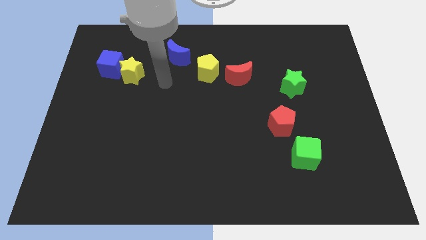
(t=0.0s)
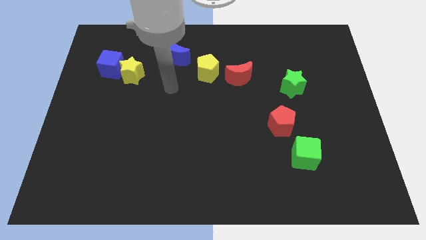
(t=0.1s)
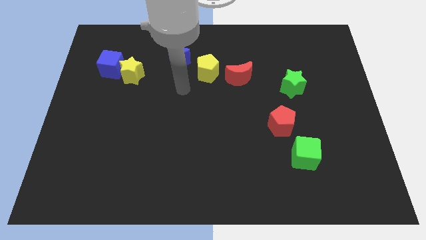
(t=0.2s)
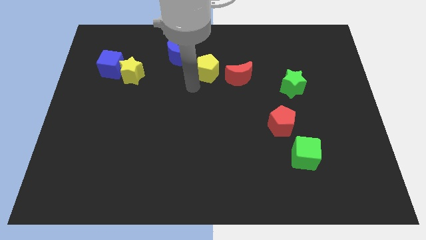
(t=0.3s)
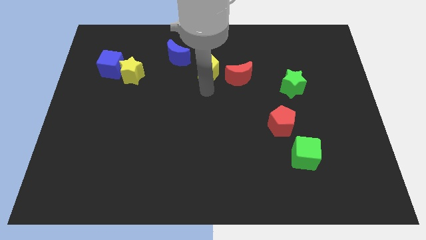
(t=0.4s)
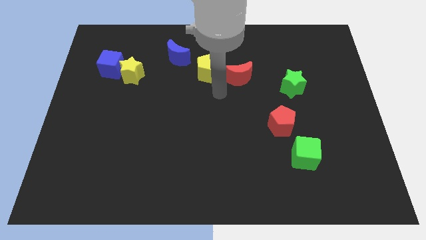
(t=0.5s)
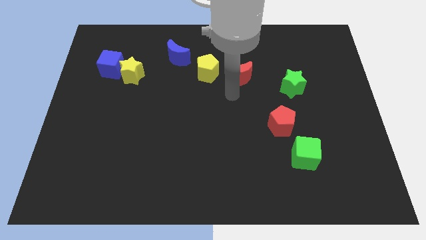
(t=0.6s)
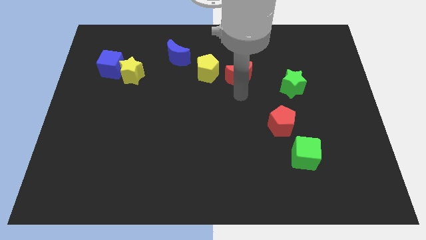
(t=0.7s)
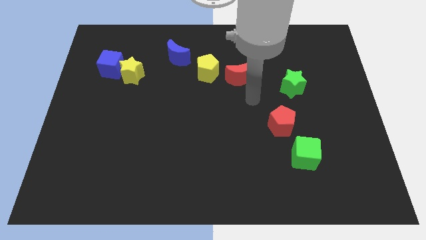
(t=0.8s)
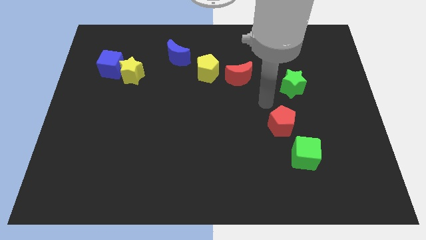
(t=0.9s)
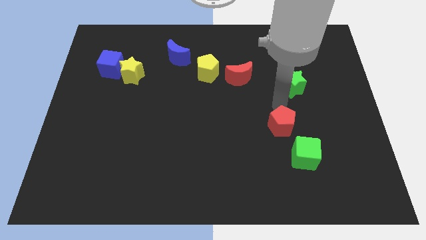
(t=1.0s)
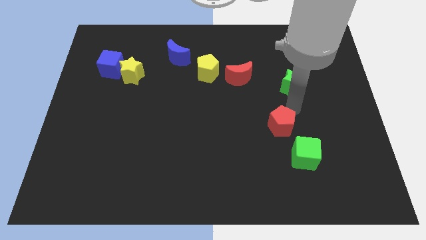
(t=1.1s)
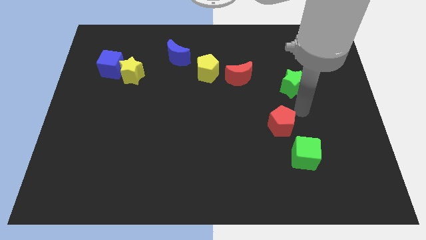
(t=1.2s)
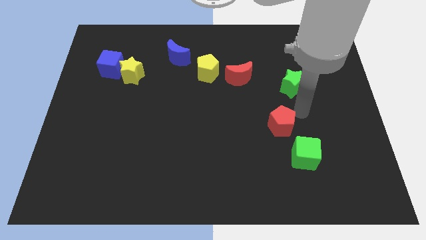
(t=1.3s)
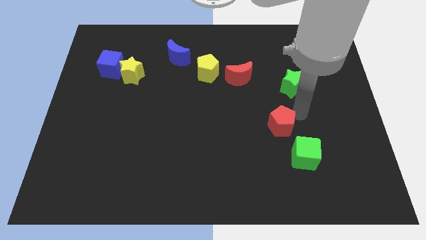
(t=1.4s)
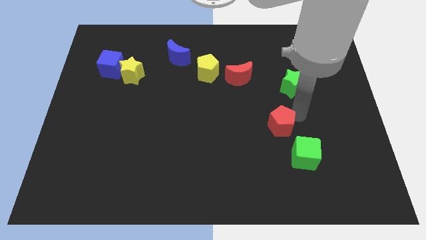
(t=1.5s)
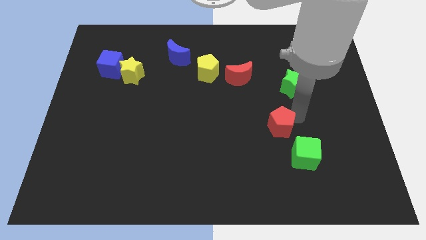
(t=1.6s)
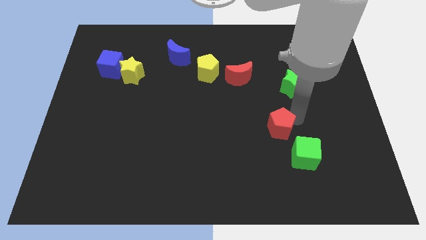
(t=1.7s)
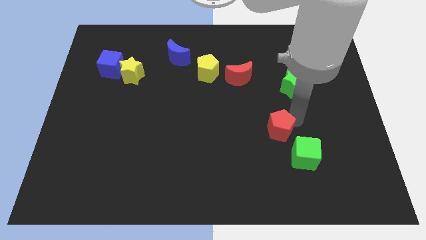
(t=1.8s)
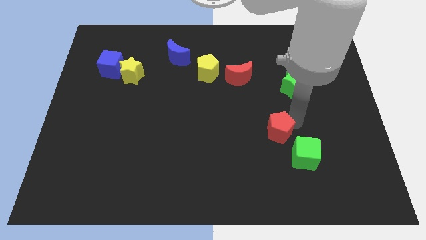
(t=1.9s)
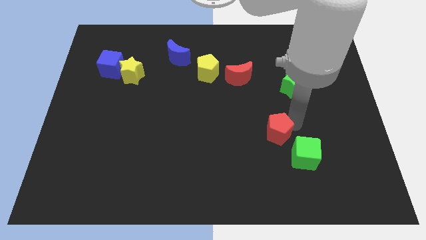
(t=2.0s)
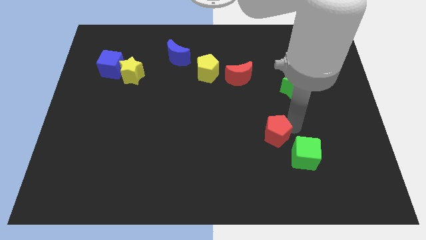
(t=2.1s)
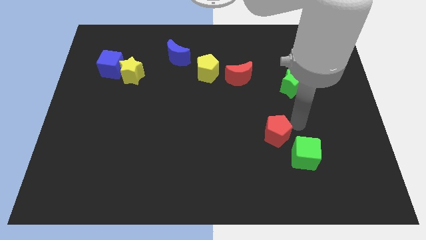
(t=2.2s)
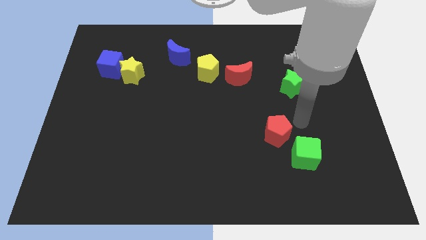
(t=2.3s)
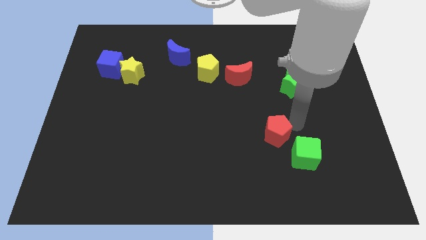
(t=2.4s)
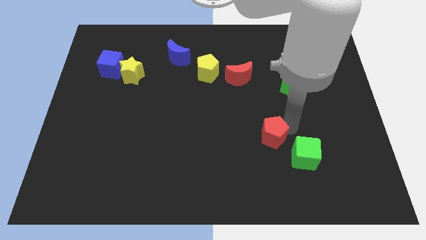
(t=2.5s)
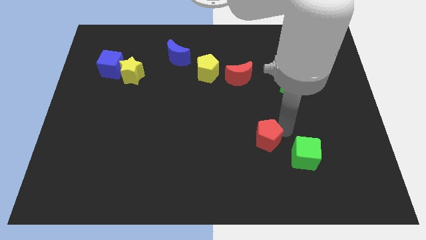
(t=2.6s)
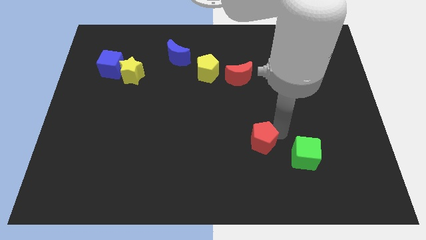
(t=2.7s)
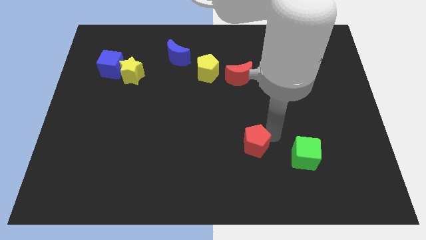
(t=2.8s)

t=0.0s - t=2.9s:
slightly push the red pentagon diagonally down and left

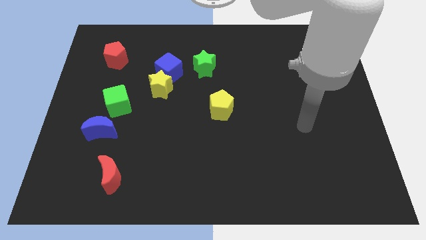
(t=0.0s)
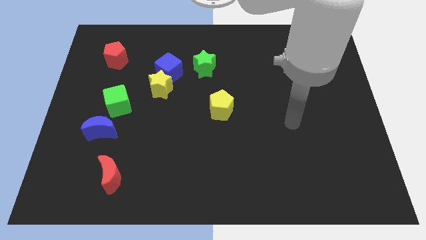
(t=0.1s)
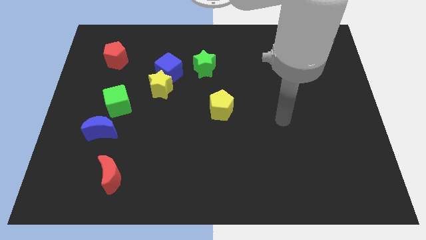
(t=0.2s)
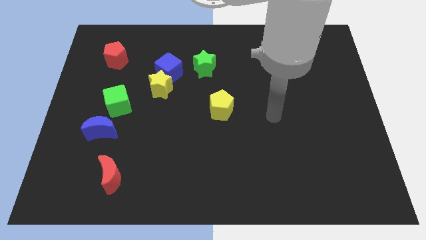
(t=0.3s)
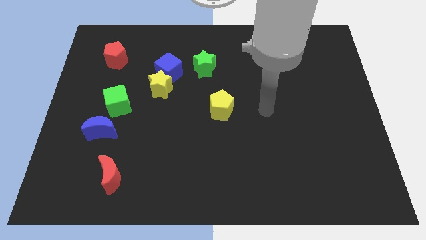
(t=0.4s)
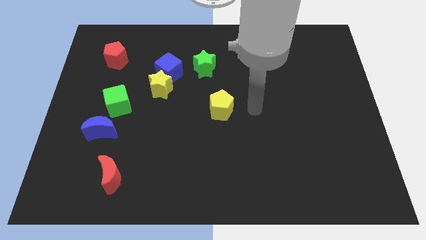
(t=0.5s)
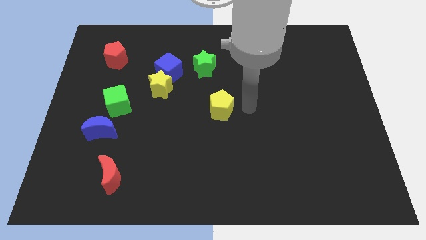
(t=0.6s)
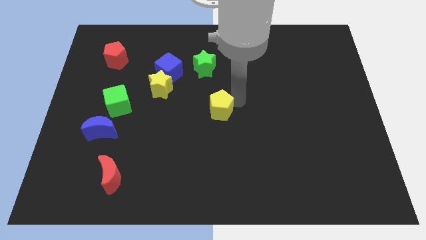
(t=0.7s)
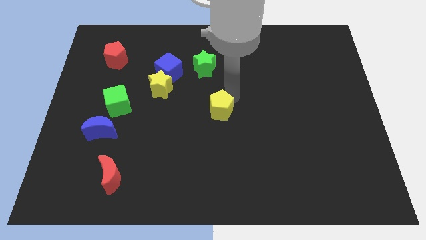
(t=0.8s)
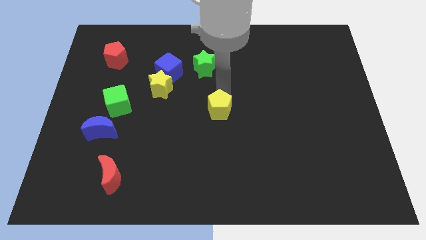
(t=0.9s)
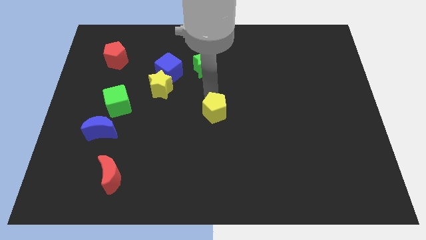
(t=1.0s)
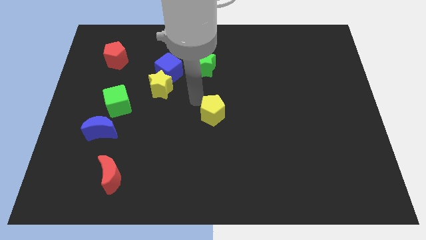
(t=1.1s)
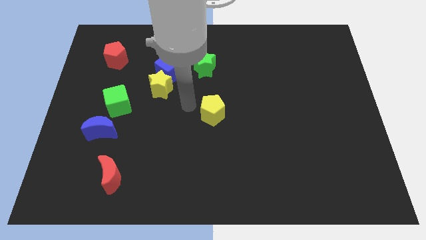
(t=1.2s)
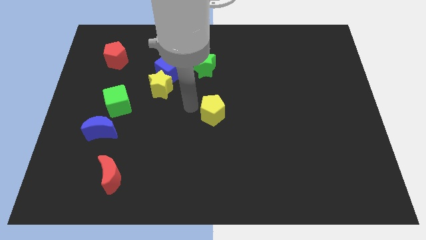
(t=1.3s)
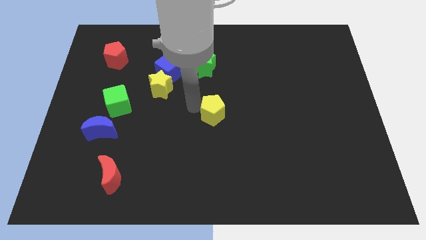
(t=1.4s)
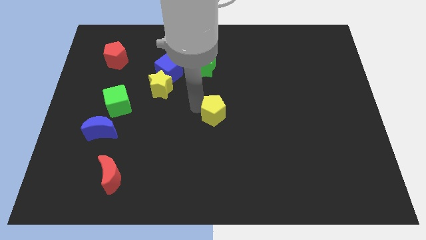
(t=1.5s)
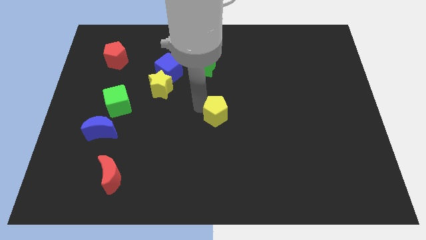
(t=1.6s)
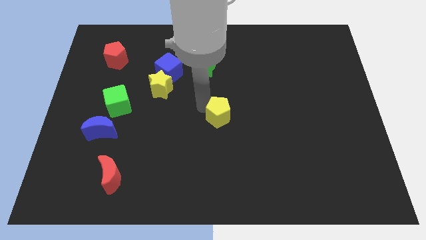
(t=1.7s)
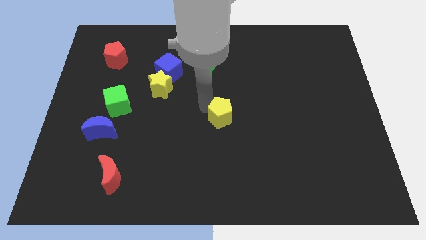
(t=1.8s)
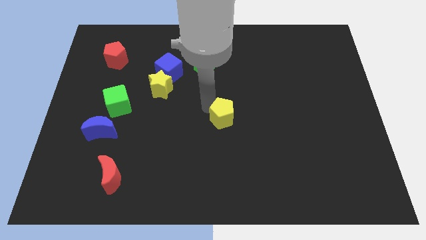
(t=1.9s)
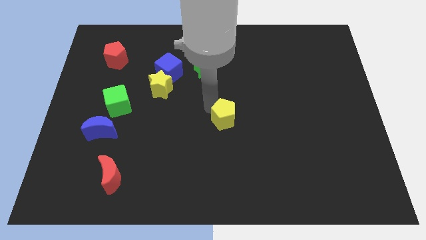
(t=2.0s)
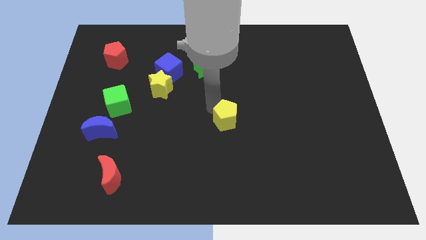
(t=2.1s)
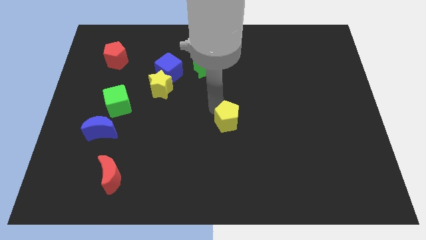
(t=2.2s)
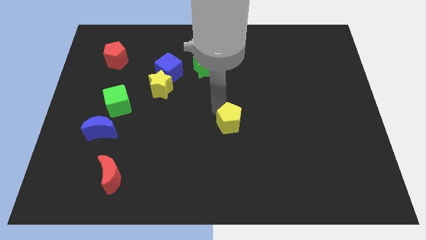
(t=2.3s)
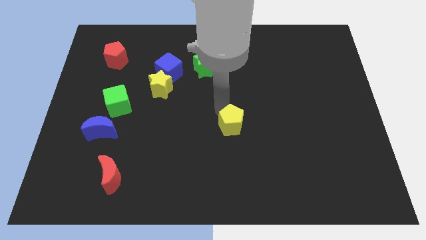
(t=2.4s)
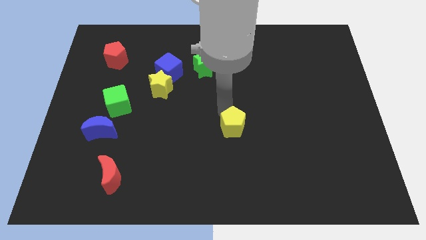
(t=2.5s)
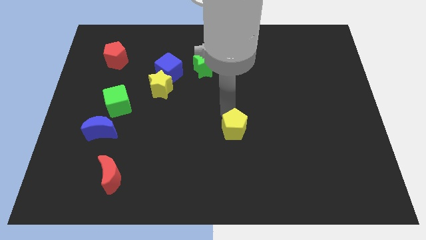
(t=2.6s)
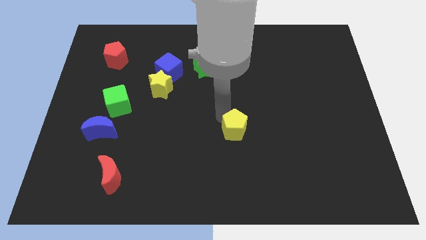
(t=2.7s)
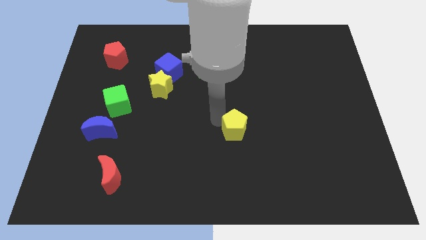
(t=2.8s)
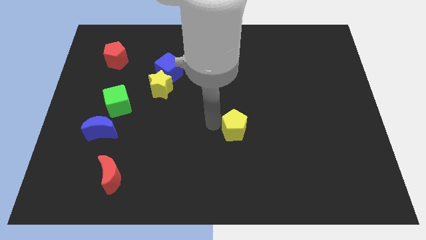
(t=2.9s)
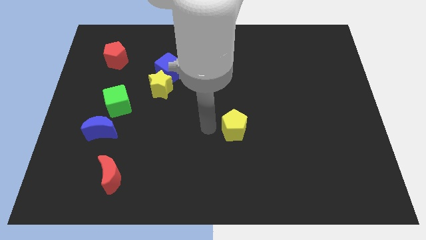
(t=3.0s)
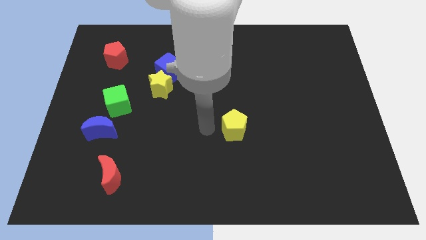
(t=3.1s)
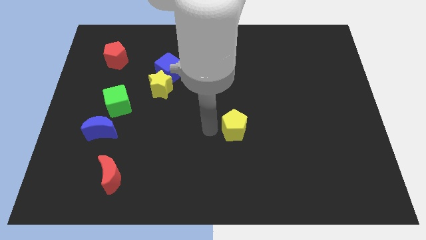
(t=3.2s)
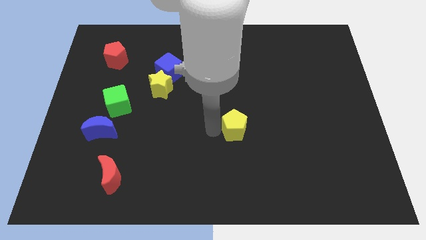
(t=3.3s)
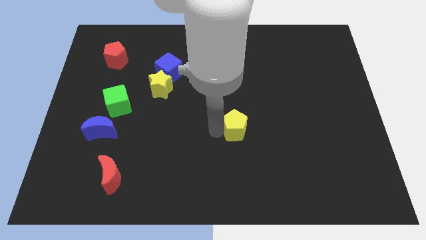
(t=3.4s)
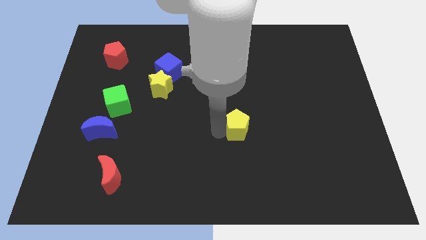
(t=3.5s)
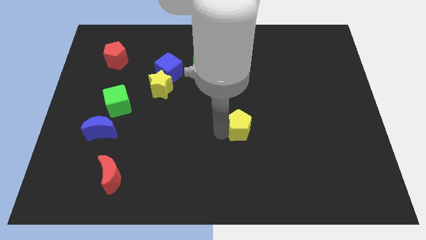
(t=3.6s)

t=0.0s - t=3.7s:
push the yellow pentagon downwards and to the right a little

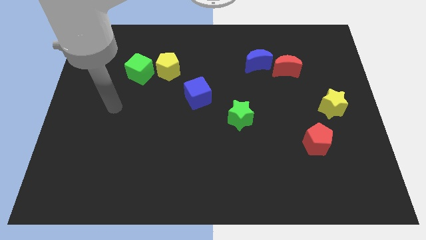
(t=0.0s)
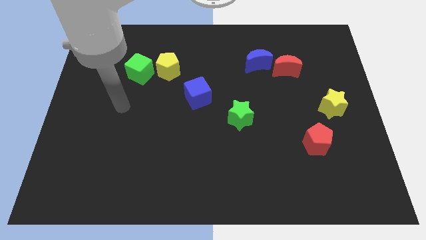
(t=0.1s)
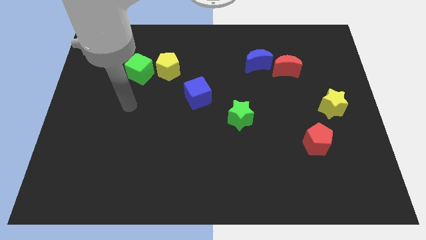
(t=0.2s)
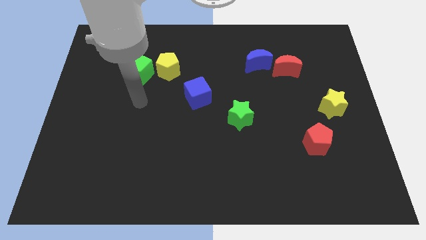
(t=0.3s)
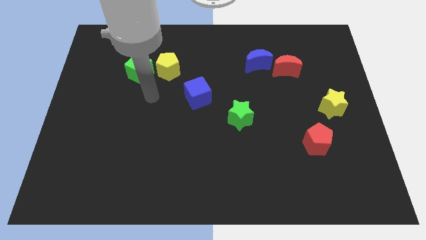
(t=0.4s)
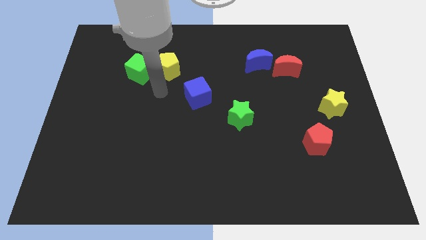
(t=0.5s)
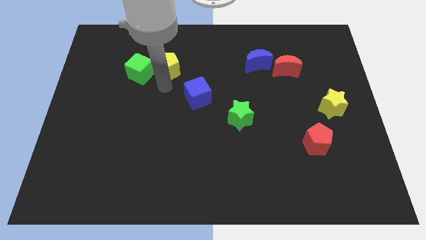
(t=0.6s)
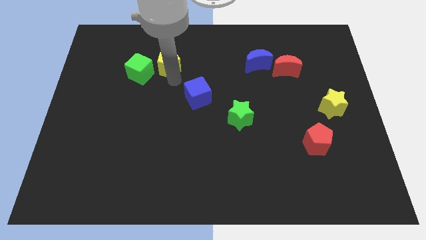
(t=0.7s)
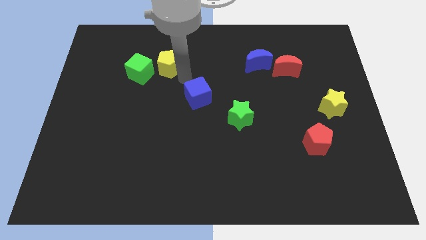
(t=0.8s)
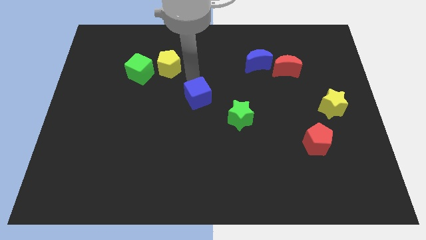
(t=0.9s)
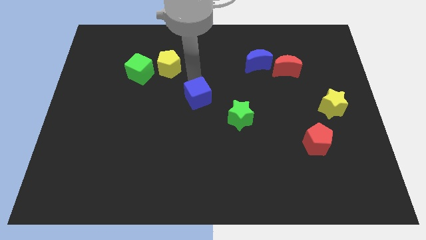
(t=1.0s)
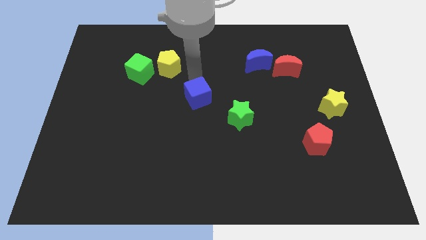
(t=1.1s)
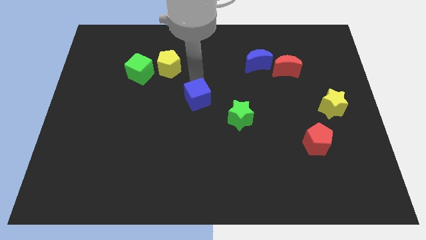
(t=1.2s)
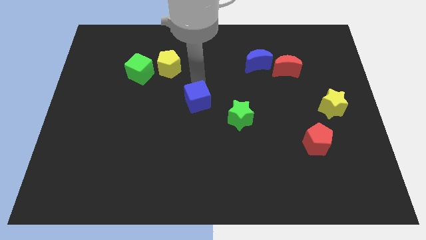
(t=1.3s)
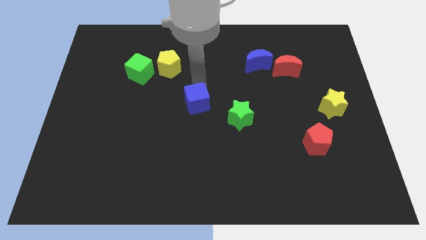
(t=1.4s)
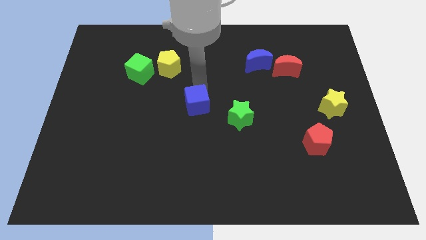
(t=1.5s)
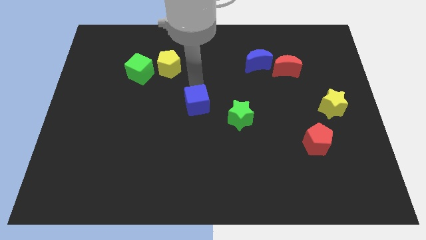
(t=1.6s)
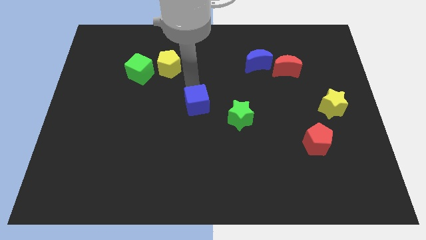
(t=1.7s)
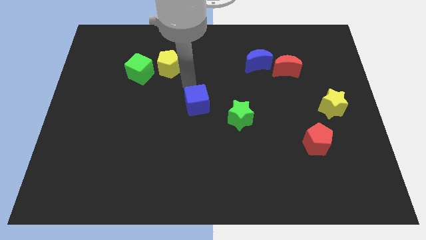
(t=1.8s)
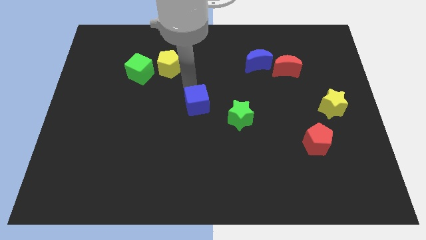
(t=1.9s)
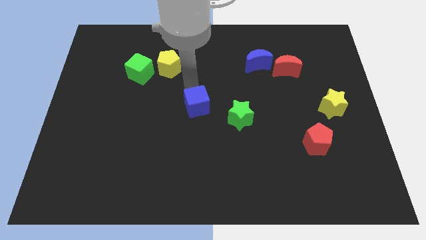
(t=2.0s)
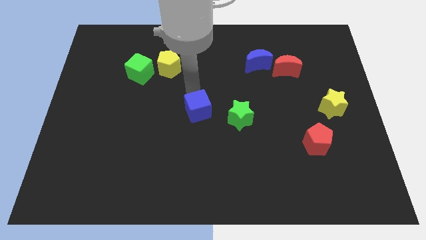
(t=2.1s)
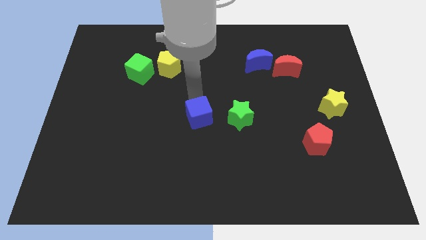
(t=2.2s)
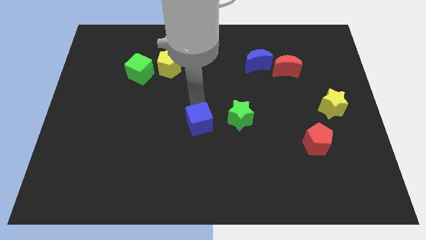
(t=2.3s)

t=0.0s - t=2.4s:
slightly move the blue cube downwards
